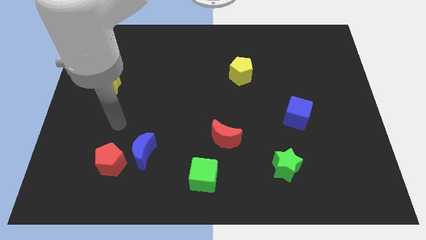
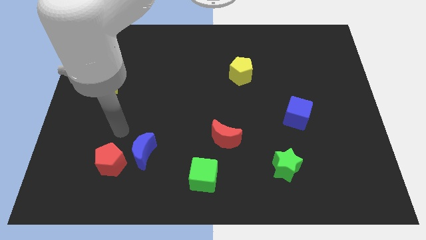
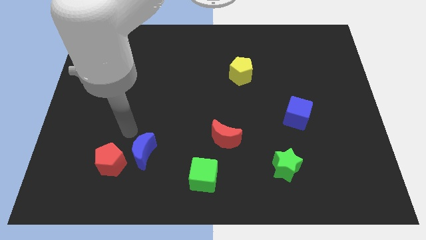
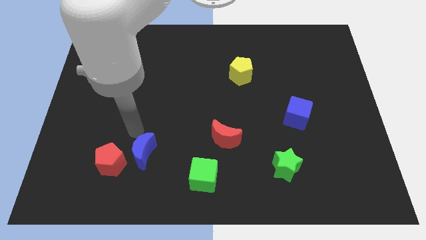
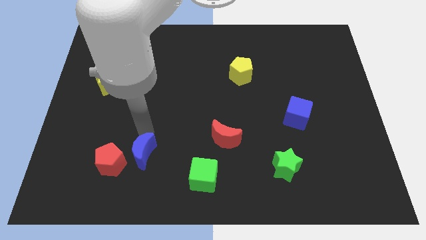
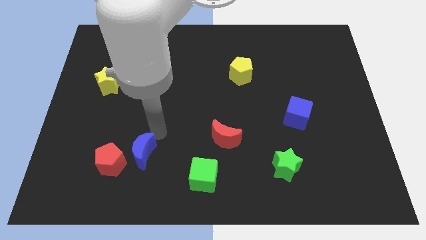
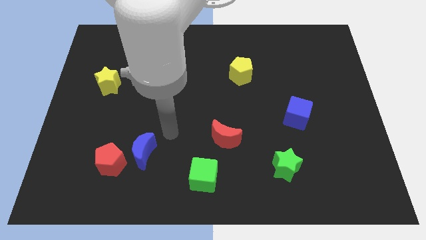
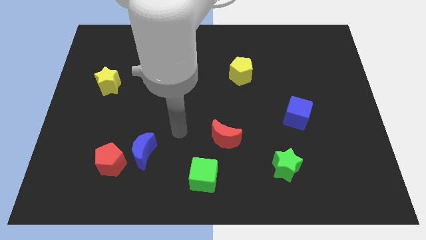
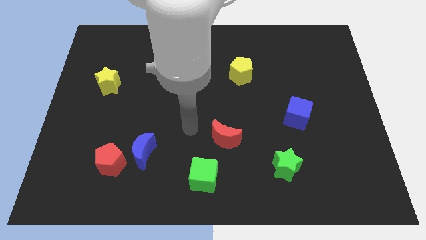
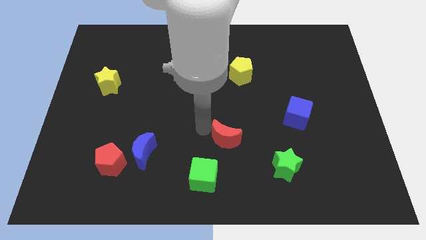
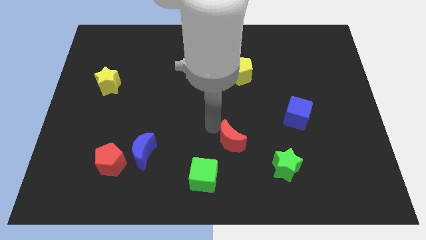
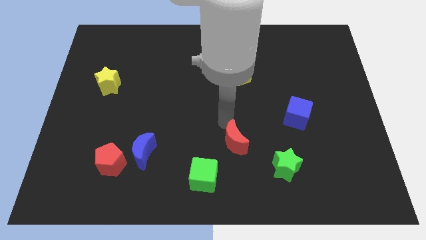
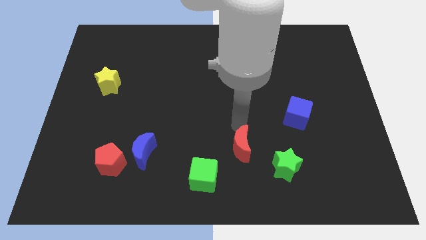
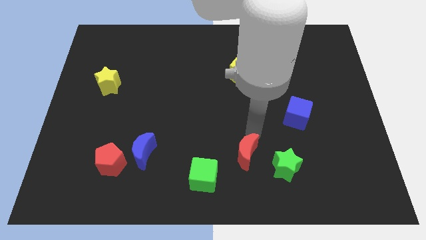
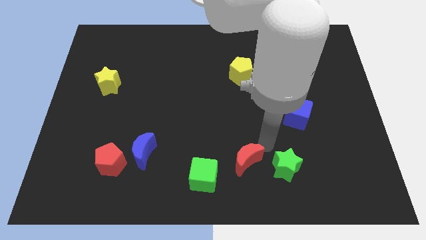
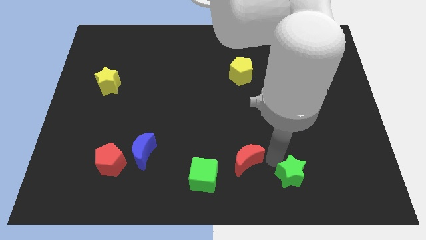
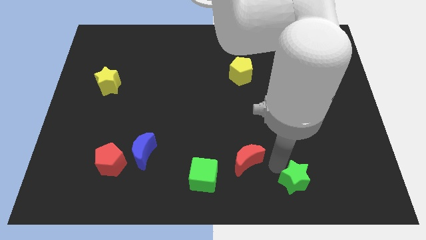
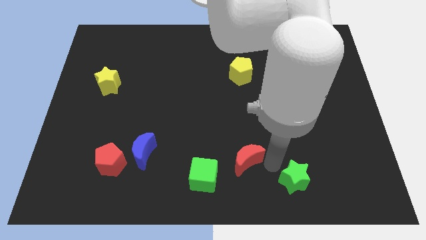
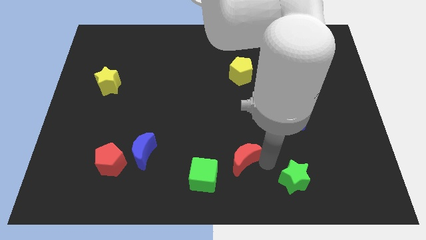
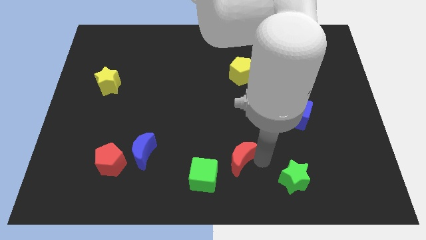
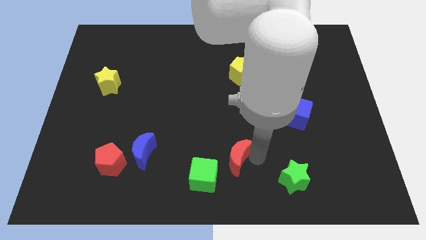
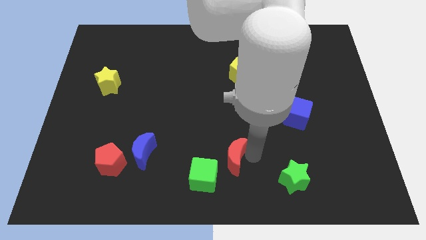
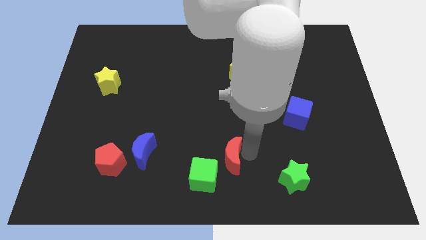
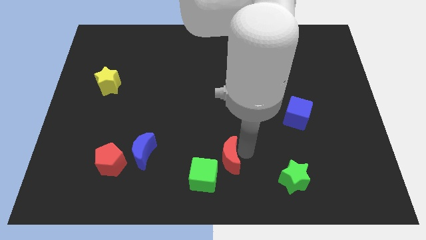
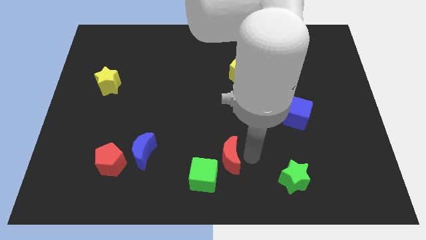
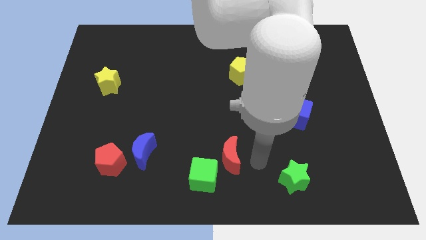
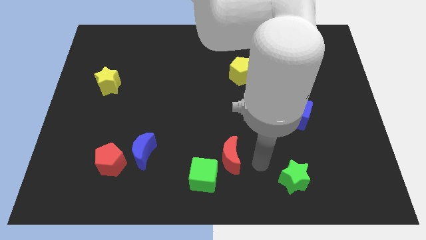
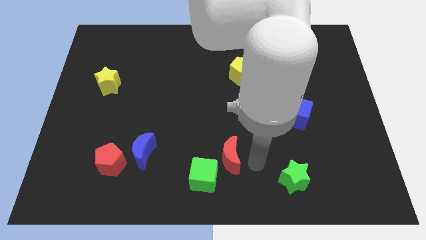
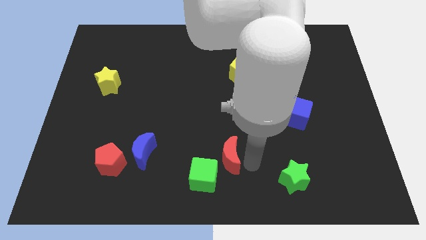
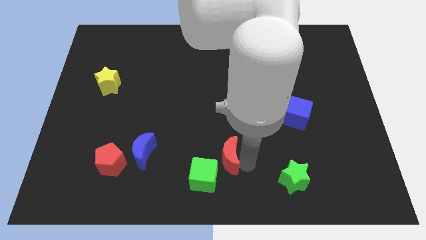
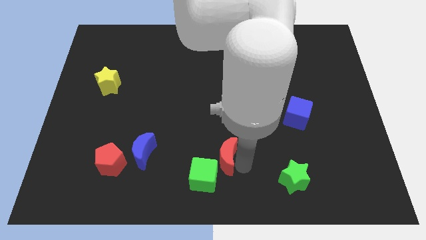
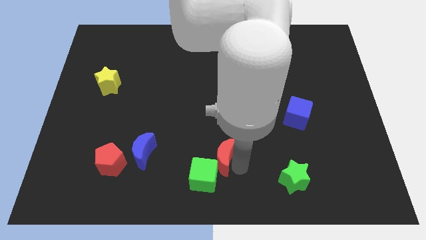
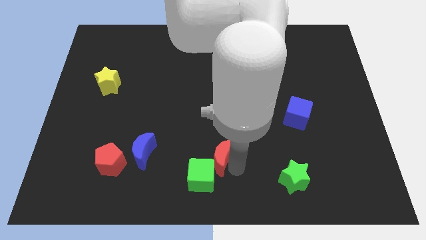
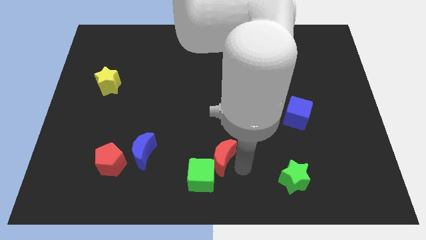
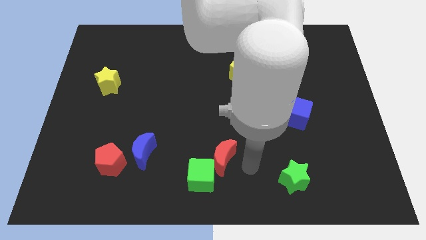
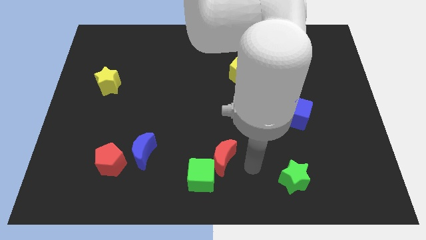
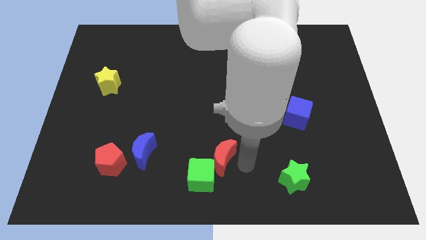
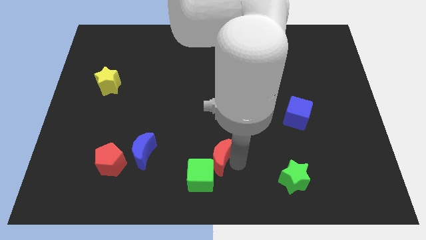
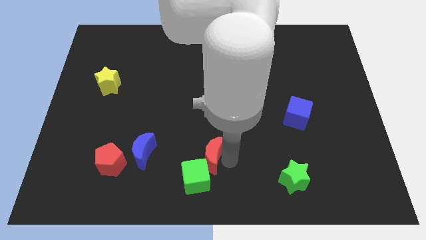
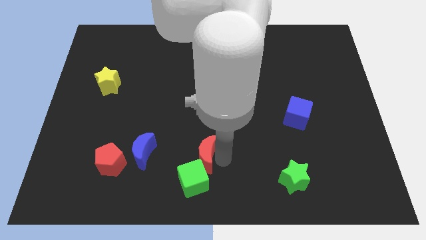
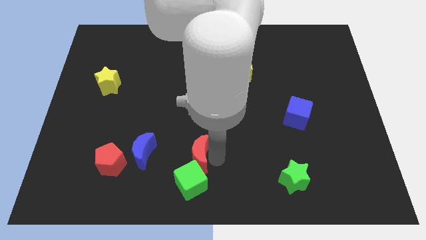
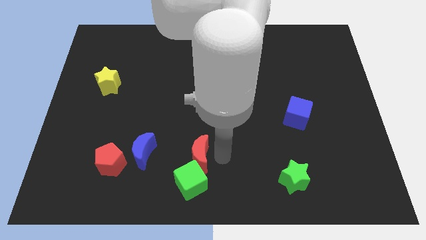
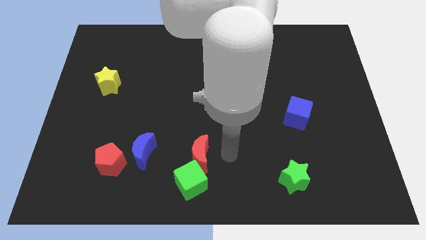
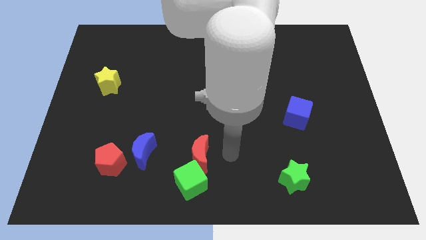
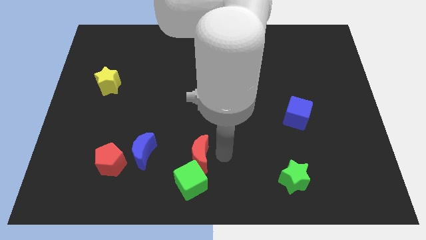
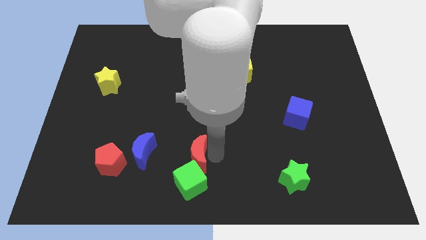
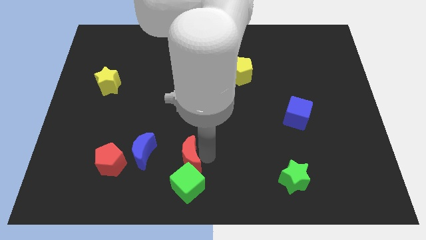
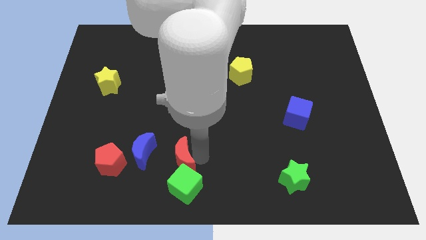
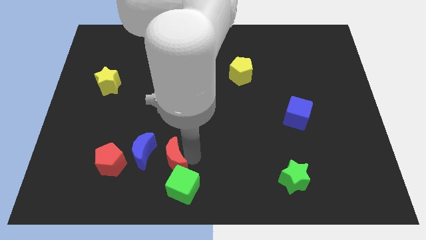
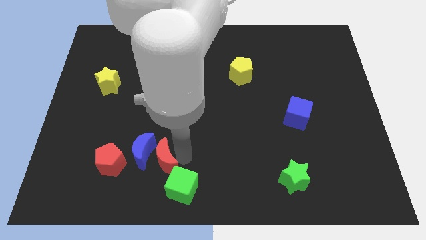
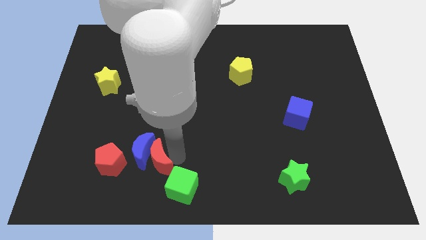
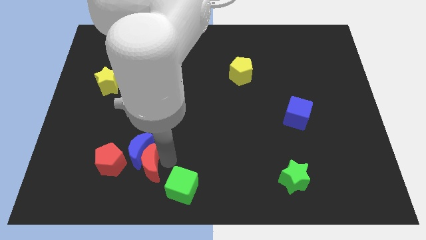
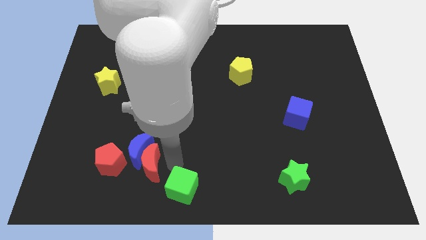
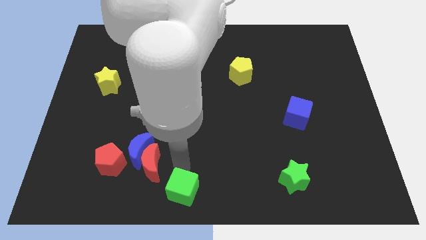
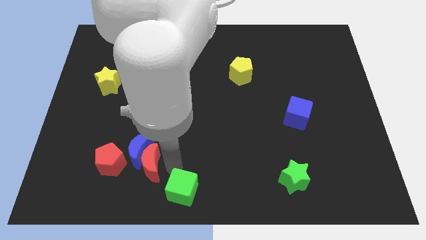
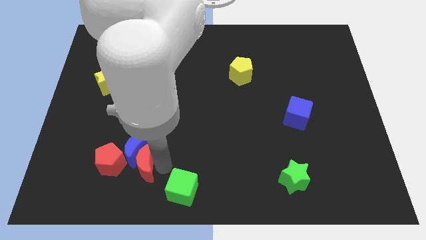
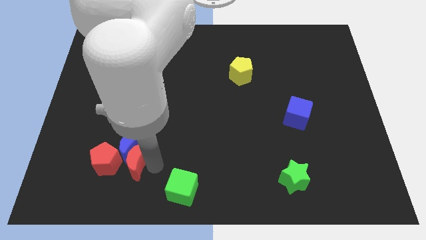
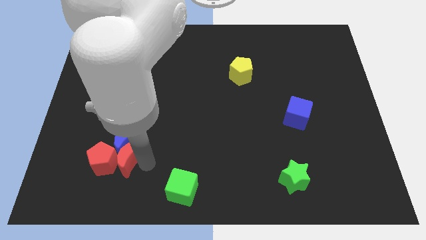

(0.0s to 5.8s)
move the red moon to the red pentagon

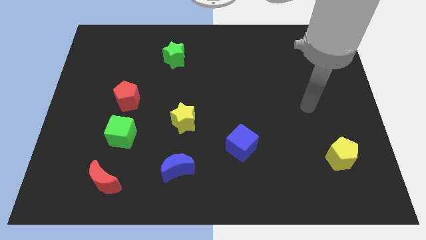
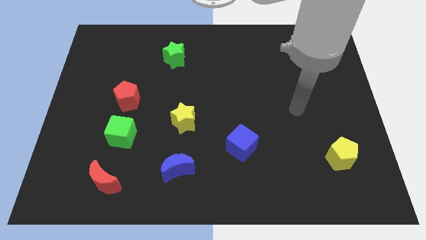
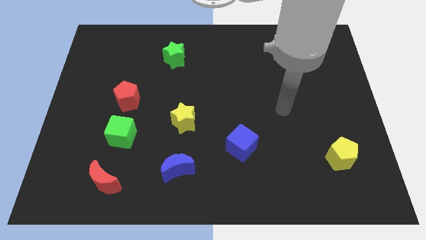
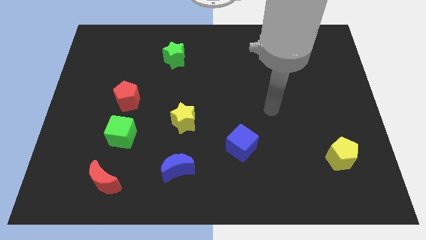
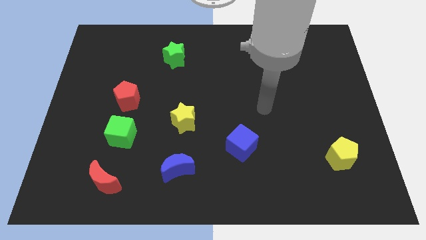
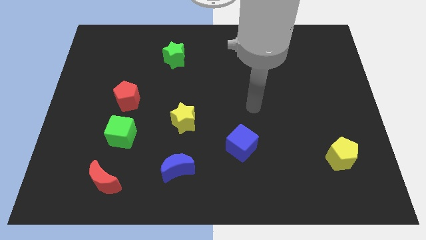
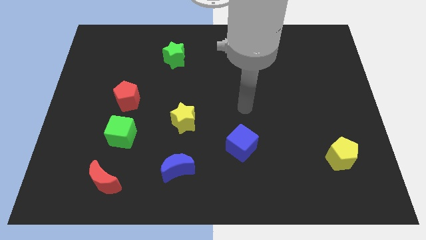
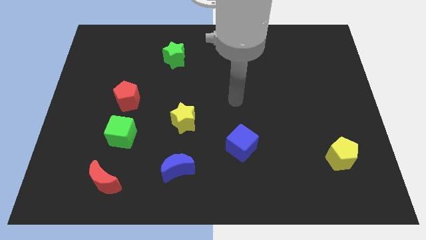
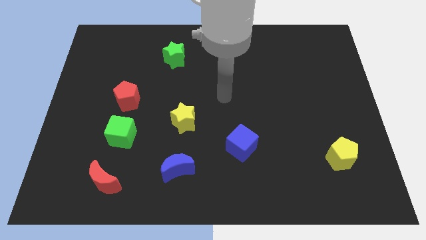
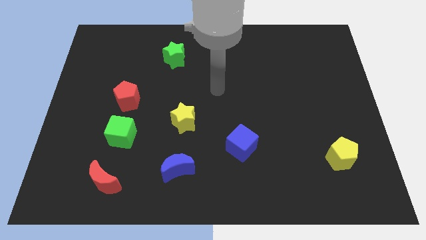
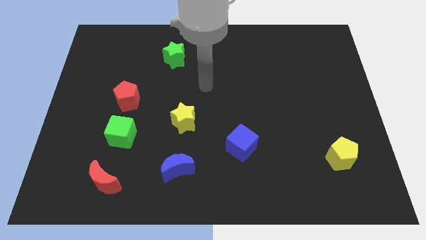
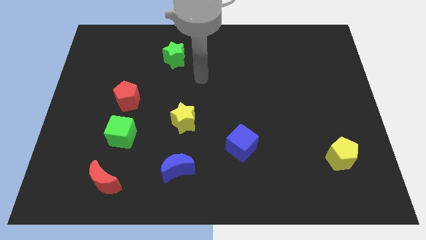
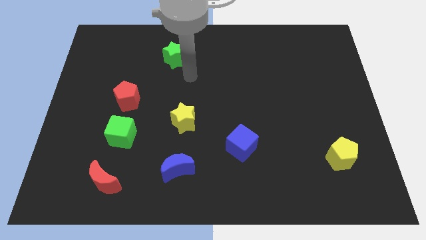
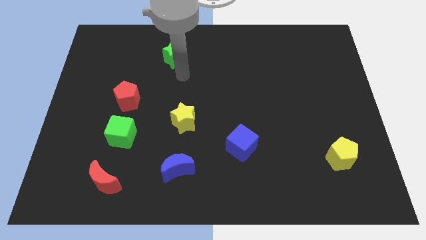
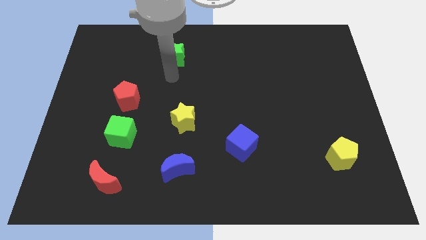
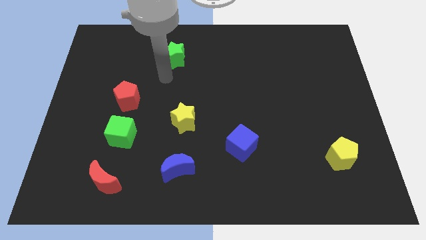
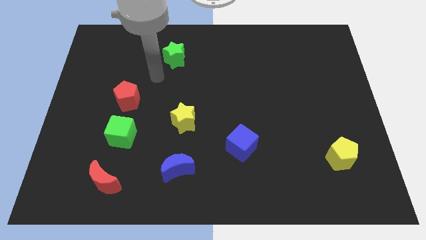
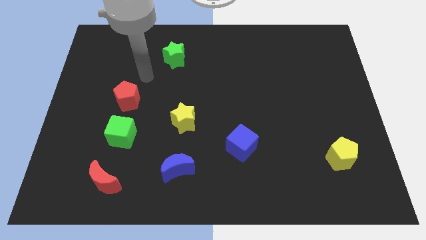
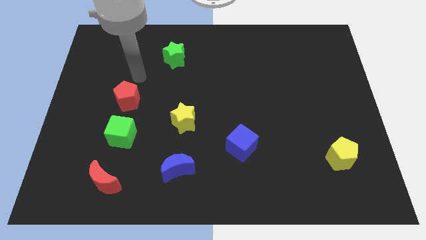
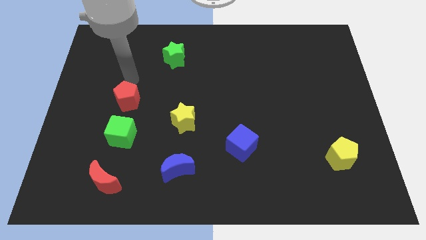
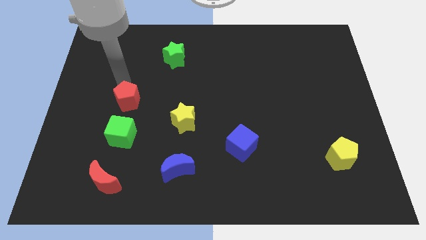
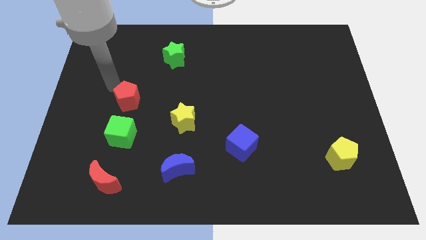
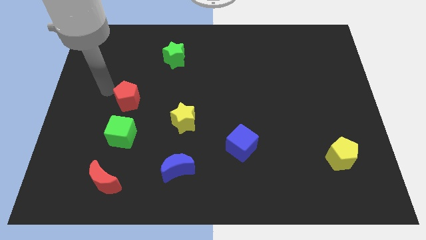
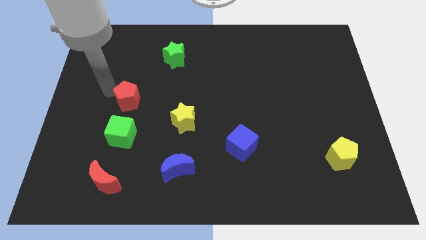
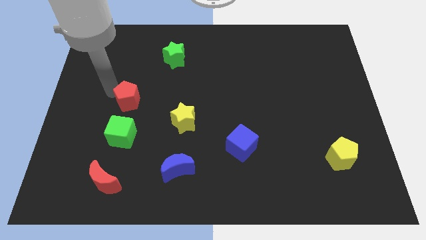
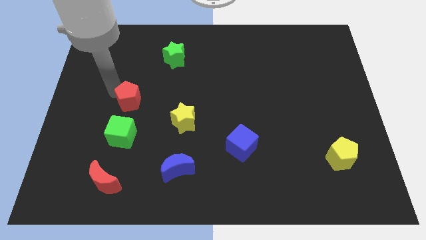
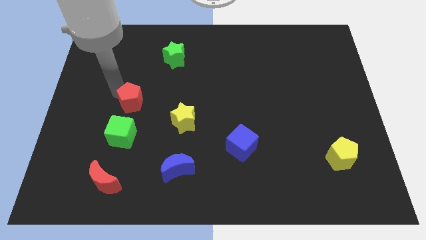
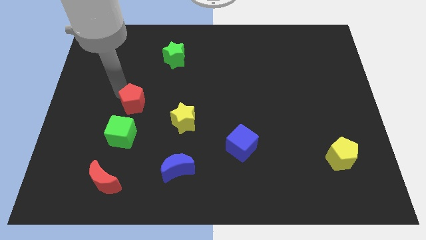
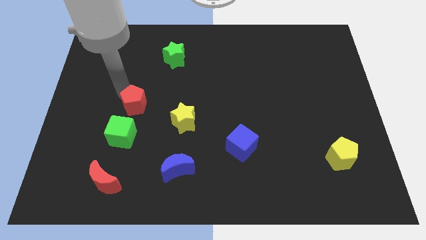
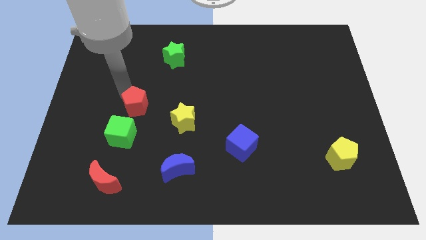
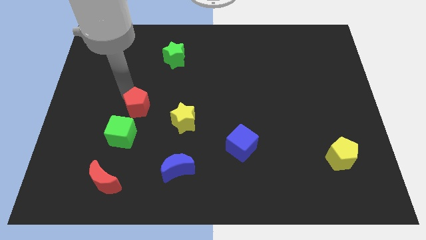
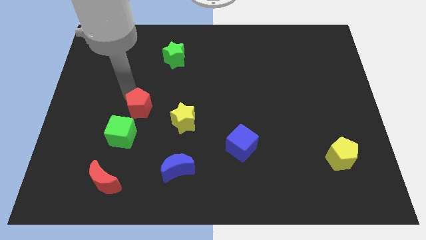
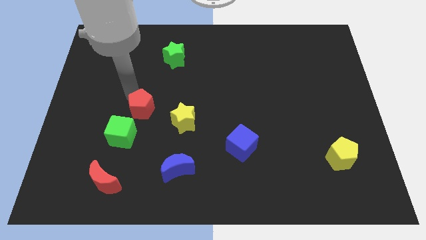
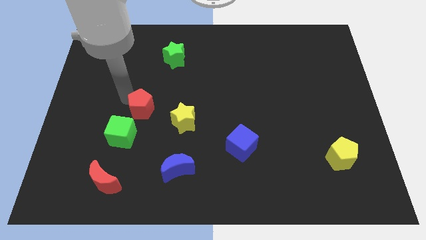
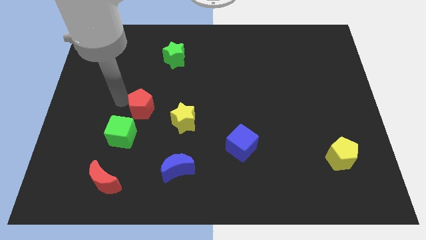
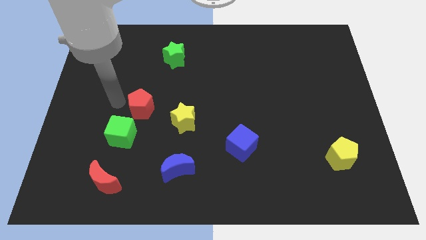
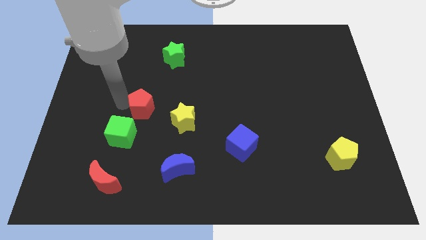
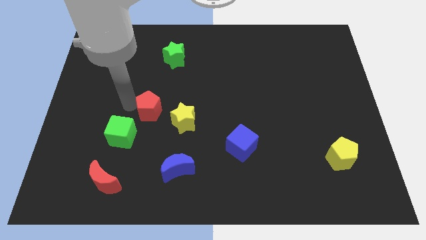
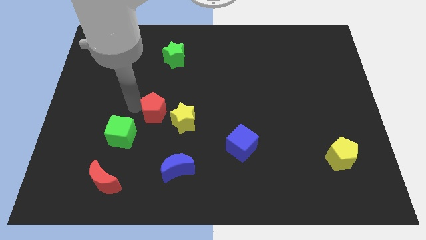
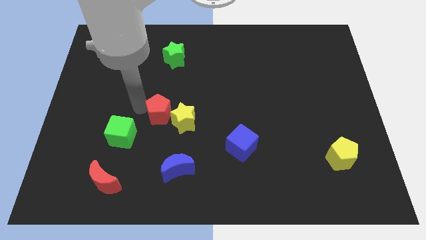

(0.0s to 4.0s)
slide the red pentagon close to the yellow star
